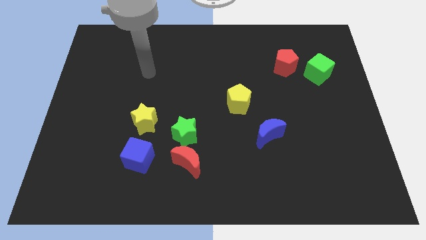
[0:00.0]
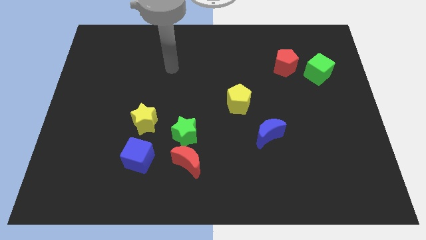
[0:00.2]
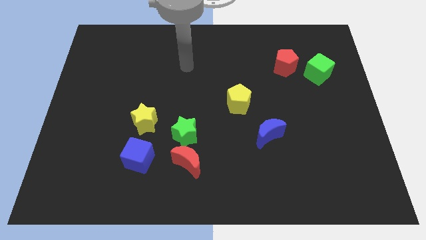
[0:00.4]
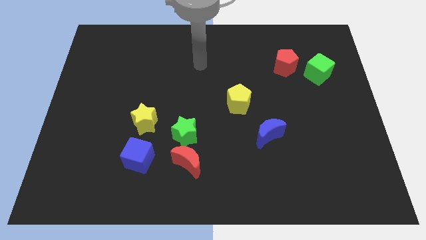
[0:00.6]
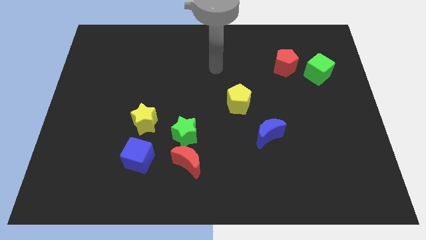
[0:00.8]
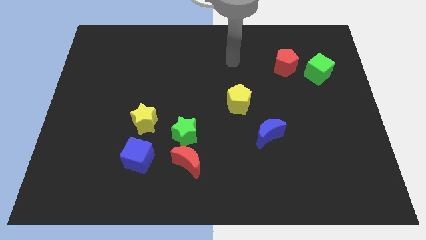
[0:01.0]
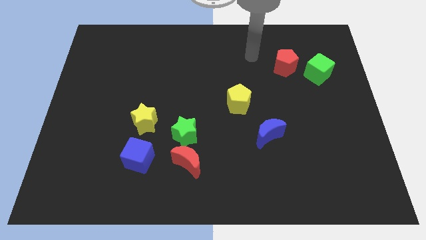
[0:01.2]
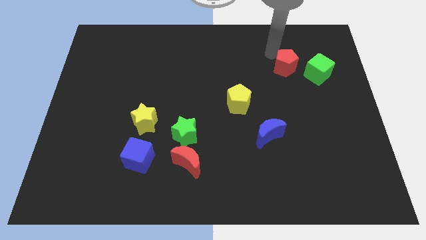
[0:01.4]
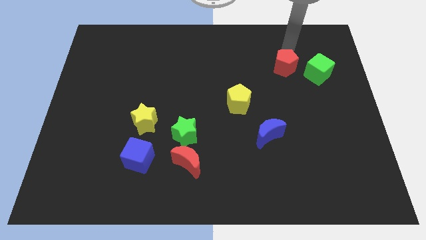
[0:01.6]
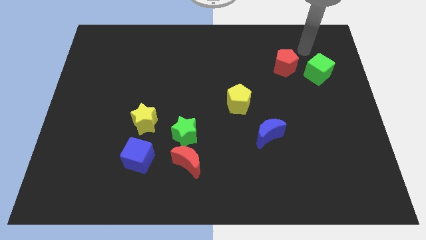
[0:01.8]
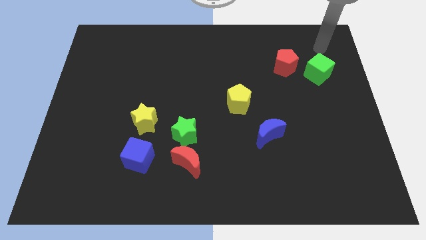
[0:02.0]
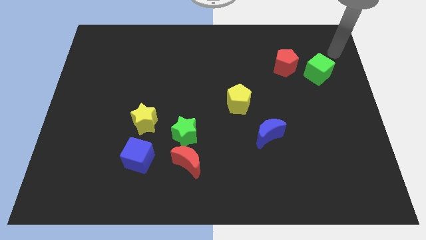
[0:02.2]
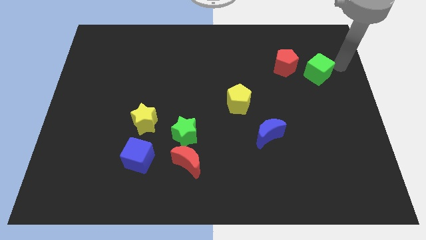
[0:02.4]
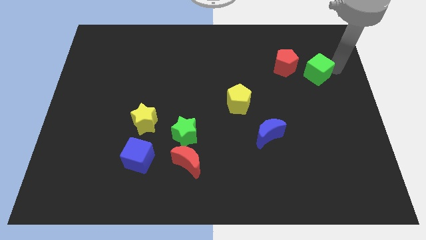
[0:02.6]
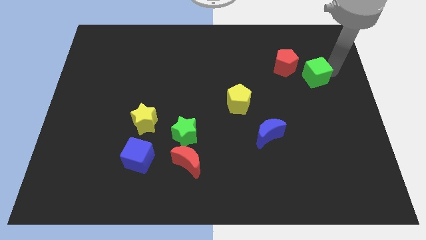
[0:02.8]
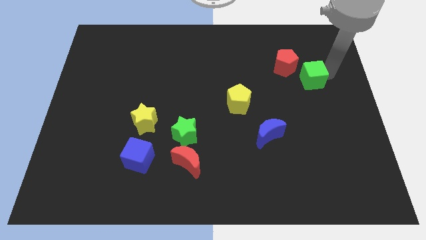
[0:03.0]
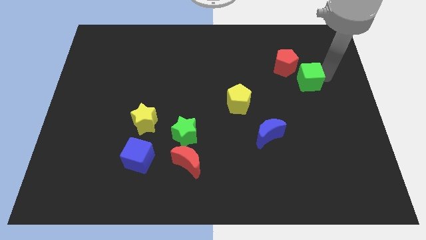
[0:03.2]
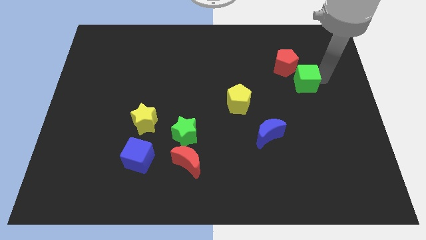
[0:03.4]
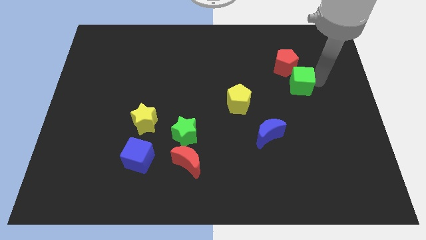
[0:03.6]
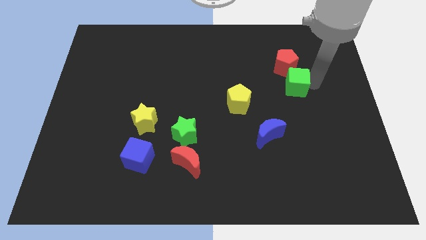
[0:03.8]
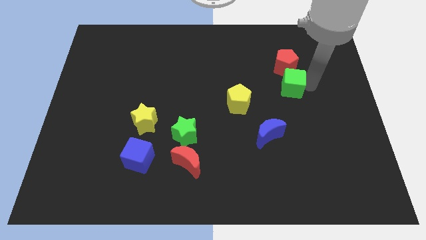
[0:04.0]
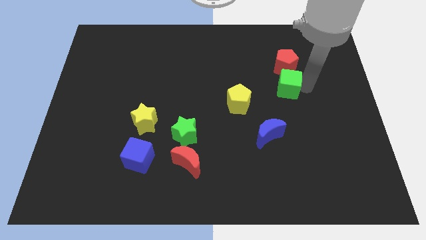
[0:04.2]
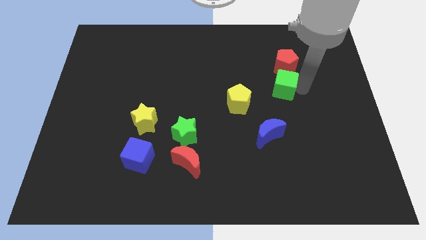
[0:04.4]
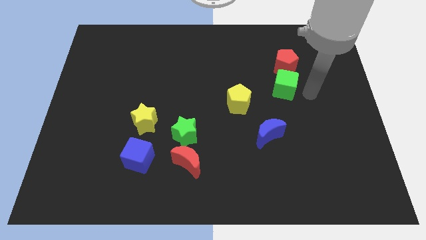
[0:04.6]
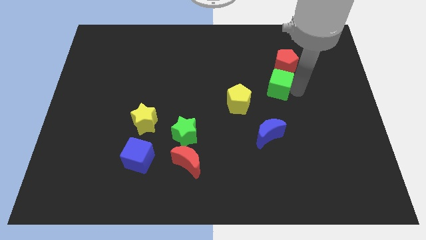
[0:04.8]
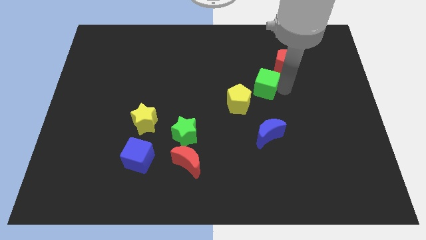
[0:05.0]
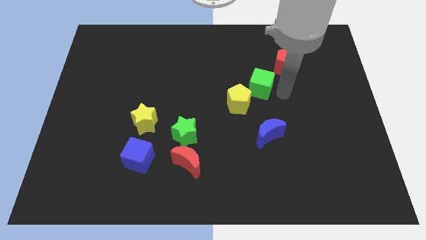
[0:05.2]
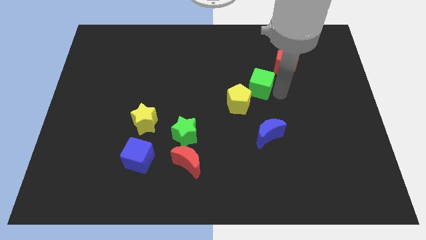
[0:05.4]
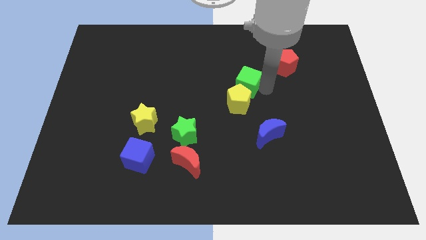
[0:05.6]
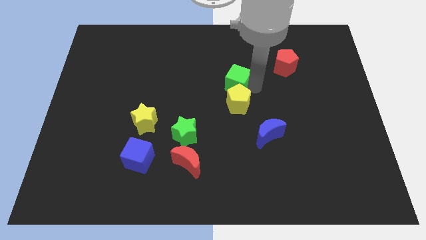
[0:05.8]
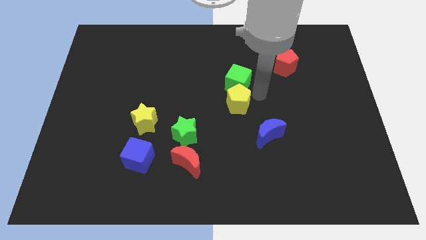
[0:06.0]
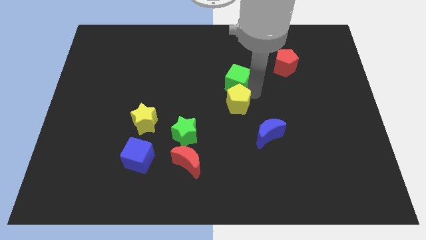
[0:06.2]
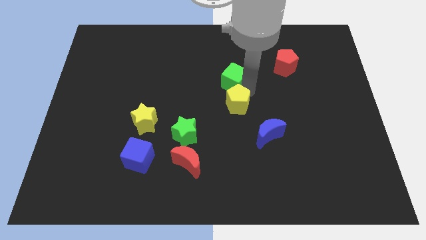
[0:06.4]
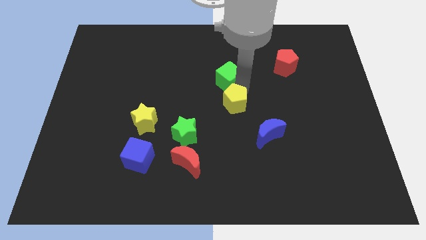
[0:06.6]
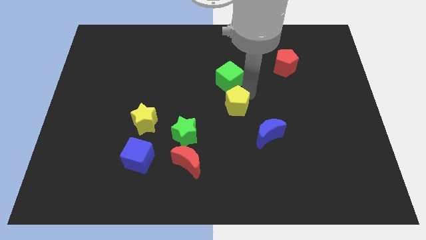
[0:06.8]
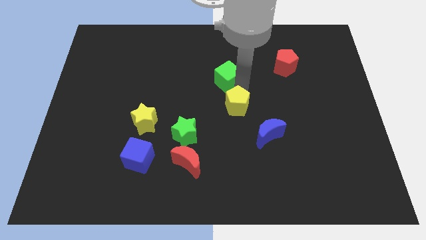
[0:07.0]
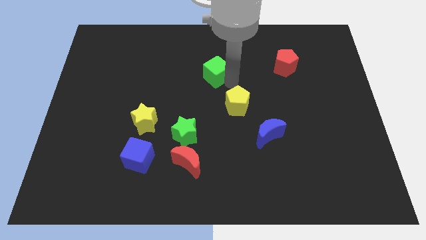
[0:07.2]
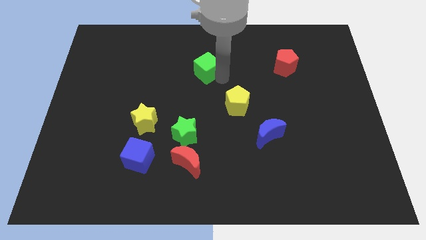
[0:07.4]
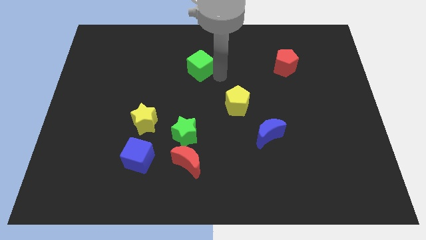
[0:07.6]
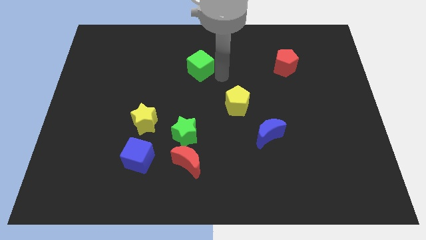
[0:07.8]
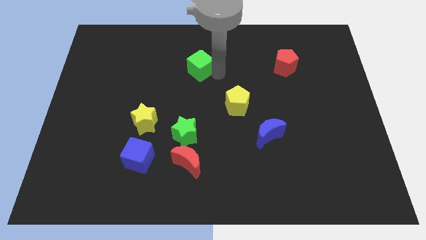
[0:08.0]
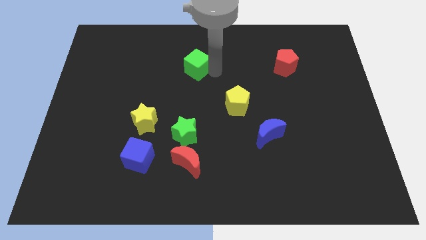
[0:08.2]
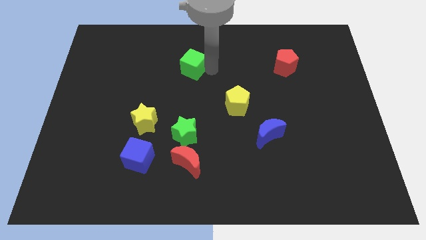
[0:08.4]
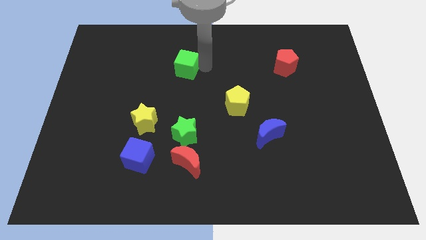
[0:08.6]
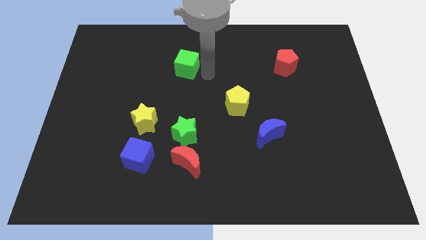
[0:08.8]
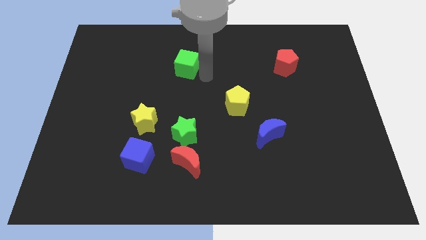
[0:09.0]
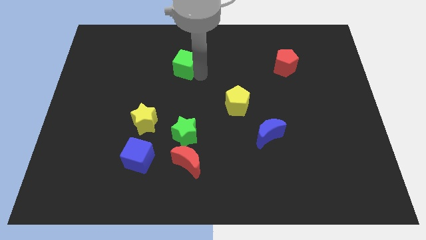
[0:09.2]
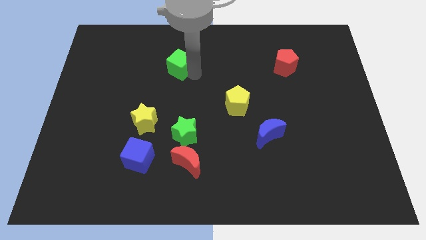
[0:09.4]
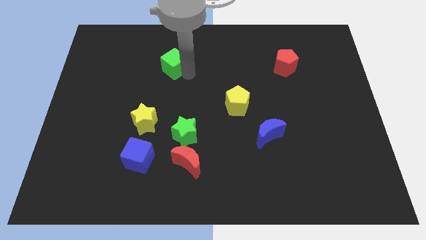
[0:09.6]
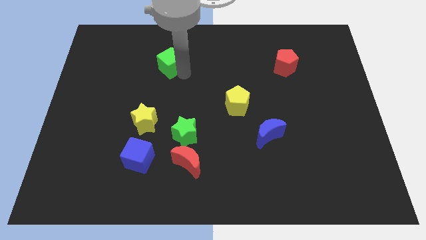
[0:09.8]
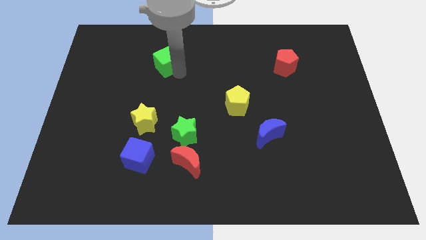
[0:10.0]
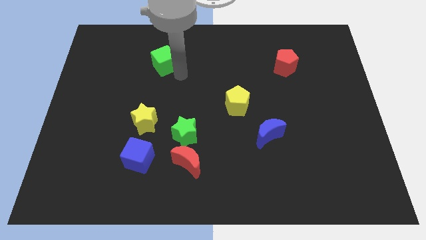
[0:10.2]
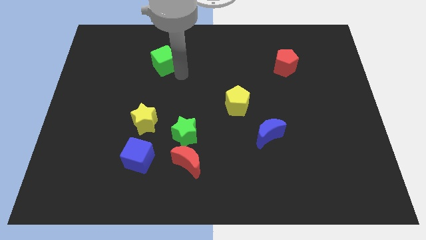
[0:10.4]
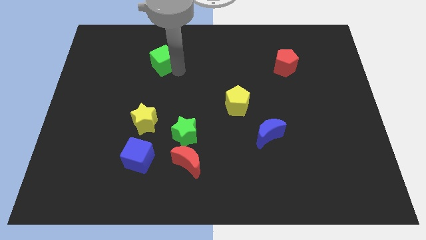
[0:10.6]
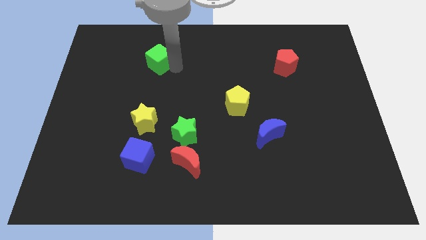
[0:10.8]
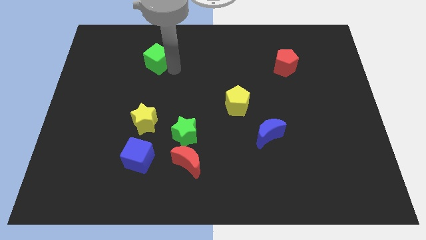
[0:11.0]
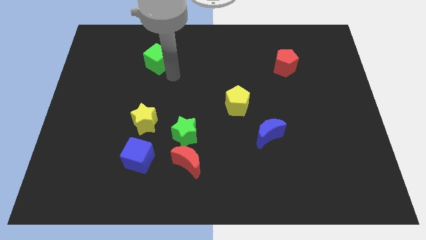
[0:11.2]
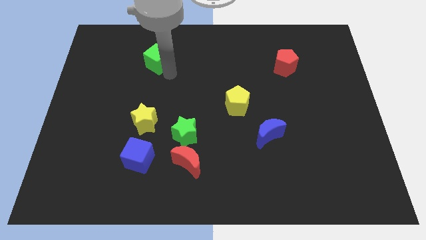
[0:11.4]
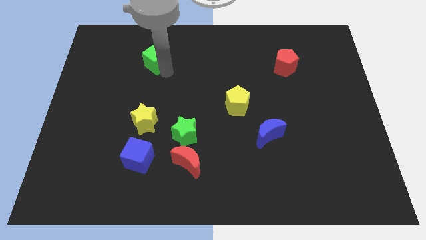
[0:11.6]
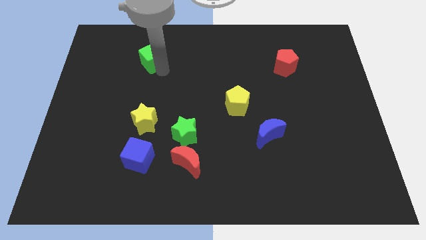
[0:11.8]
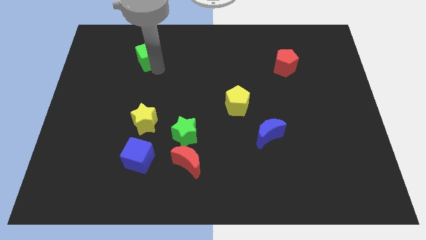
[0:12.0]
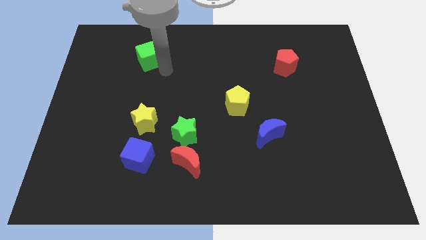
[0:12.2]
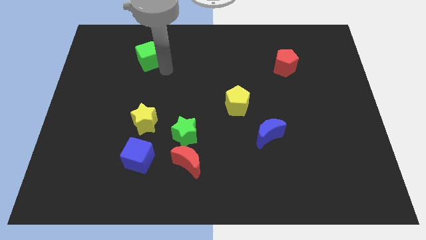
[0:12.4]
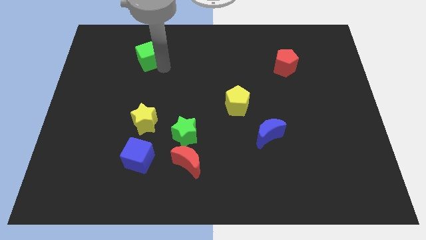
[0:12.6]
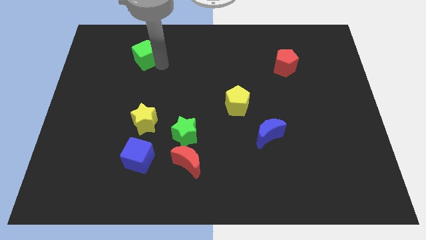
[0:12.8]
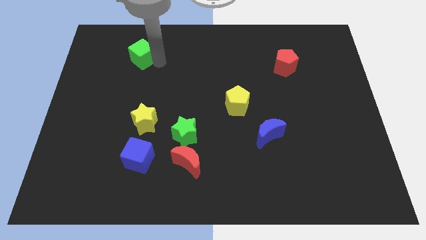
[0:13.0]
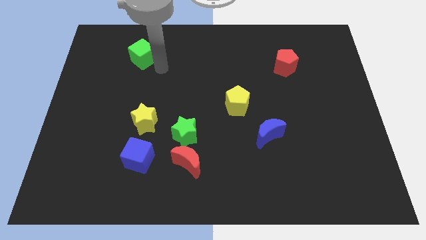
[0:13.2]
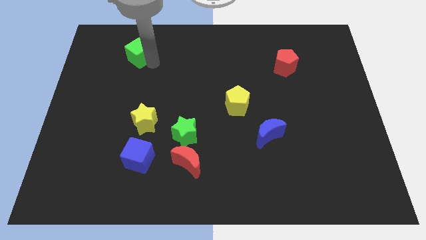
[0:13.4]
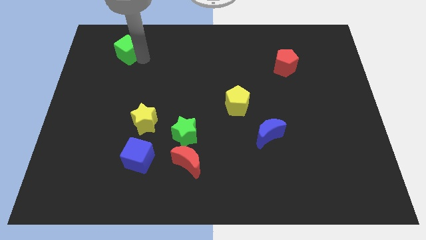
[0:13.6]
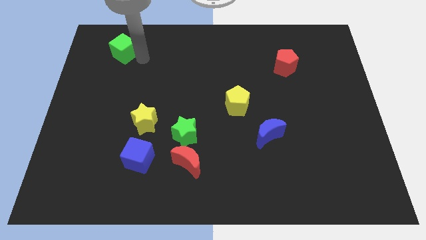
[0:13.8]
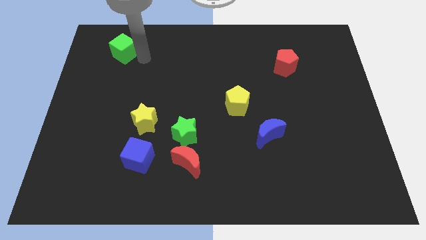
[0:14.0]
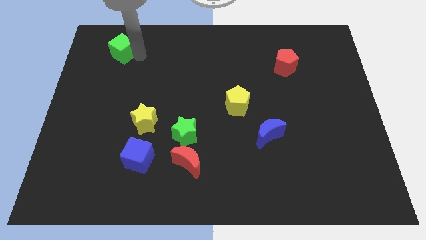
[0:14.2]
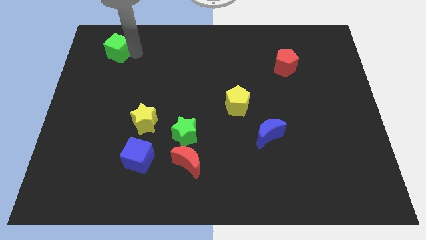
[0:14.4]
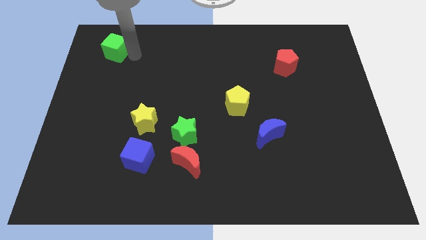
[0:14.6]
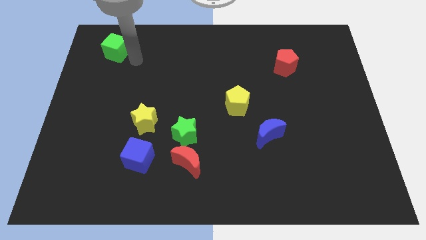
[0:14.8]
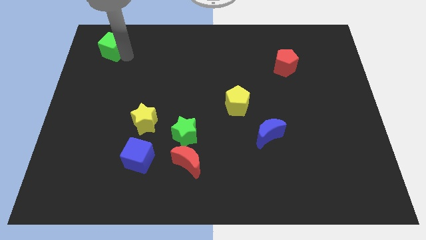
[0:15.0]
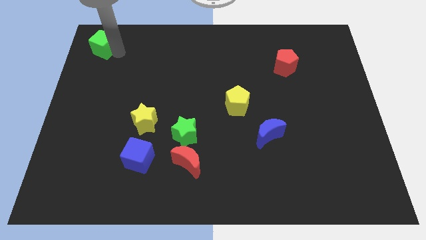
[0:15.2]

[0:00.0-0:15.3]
put the green cube to the top left corner
